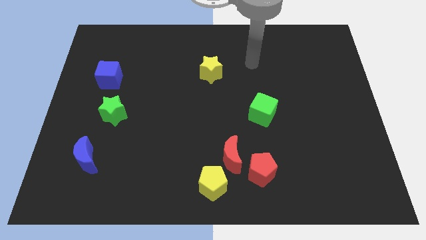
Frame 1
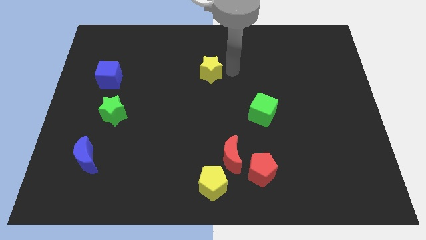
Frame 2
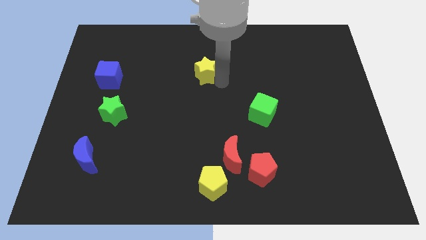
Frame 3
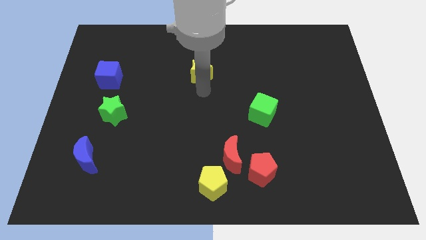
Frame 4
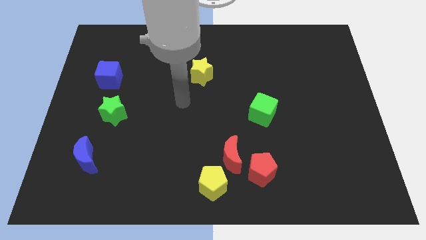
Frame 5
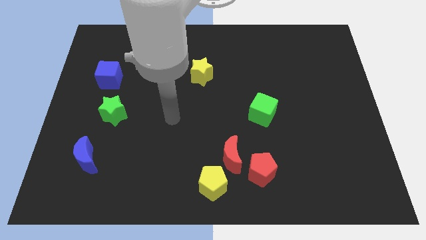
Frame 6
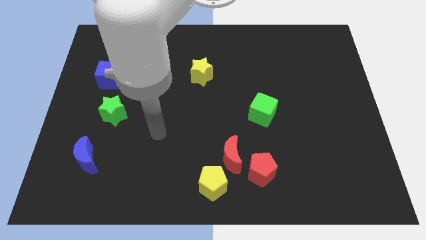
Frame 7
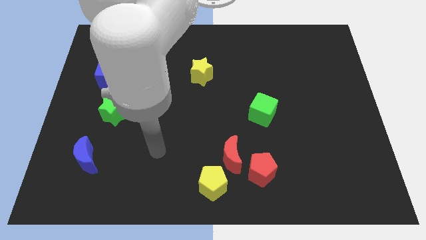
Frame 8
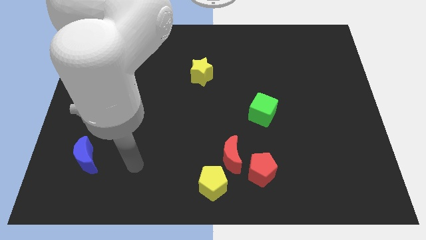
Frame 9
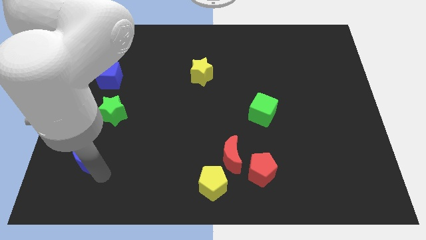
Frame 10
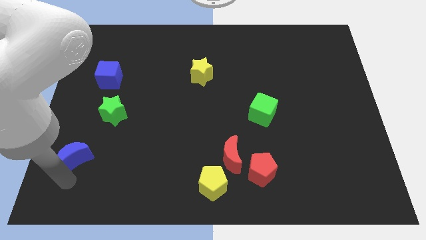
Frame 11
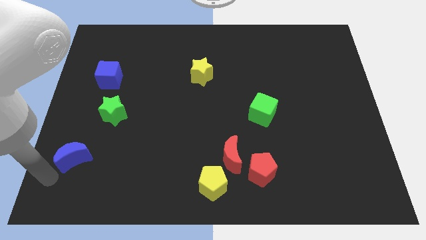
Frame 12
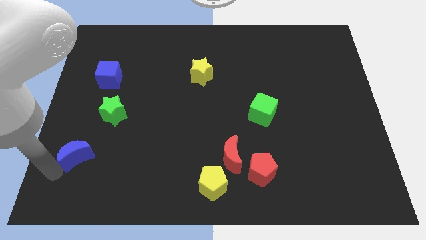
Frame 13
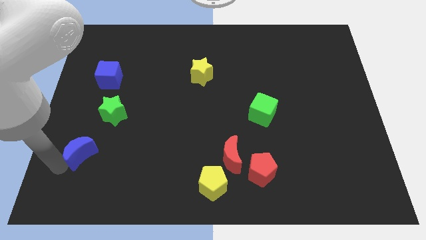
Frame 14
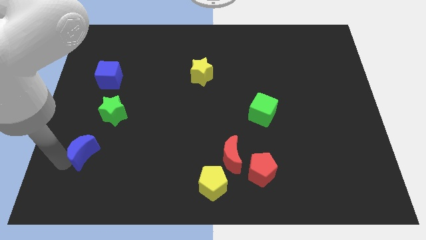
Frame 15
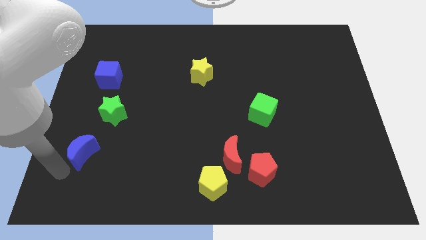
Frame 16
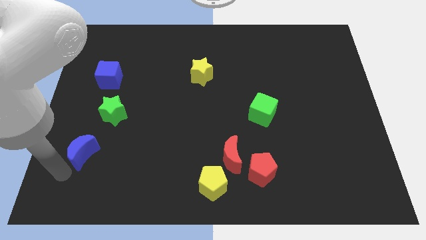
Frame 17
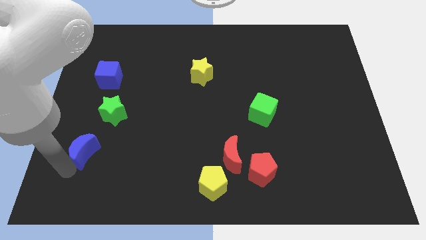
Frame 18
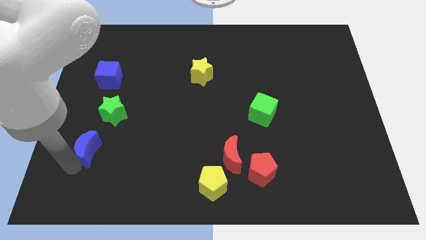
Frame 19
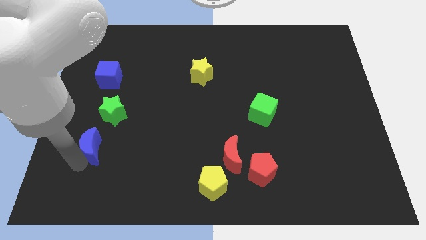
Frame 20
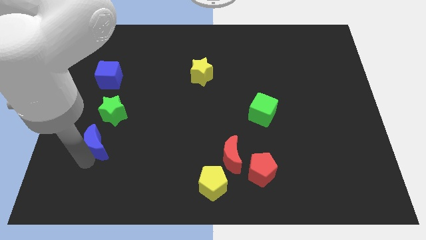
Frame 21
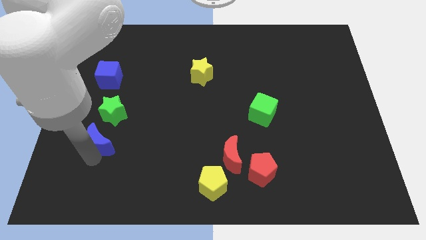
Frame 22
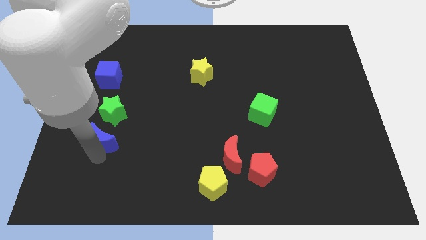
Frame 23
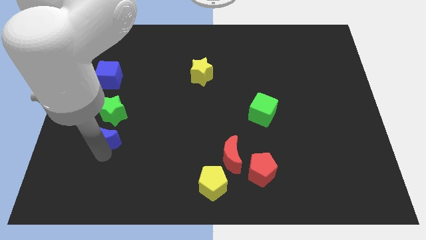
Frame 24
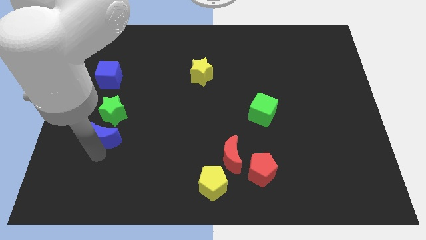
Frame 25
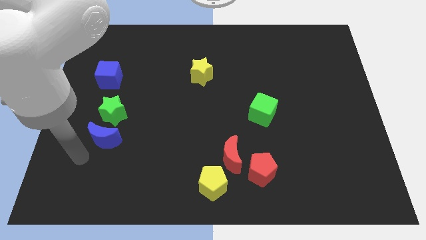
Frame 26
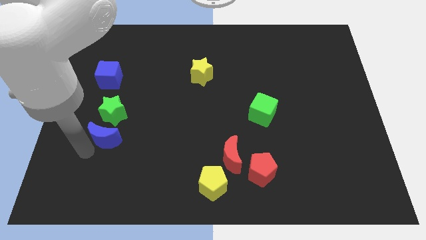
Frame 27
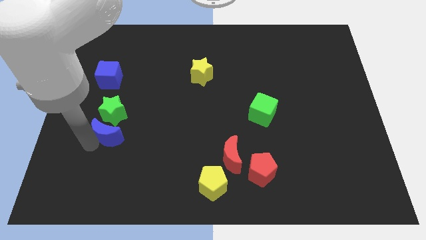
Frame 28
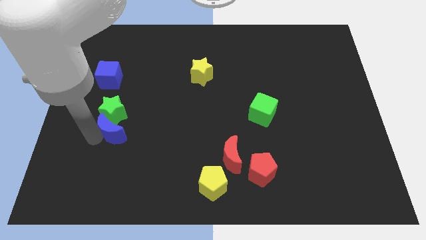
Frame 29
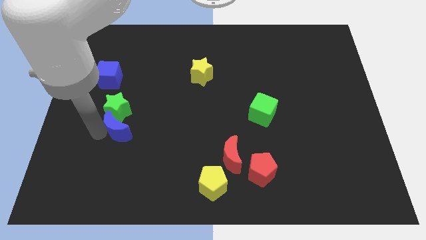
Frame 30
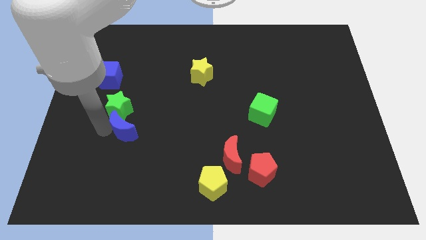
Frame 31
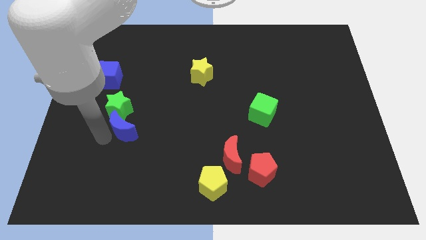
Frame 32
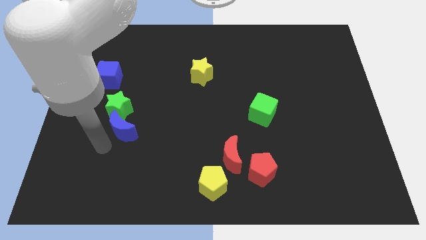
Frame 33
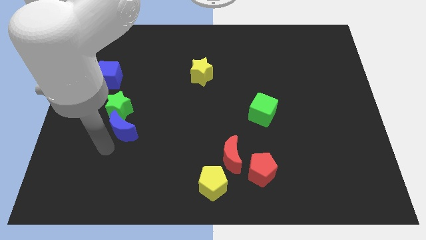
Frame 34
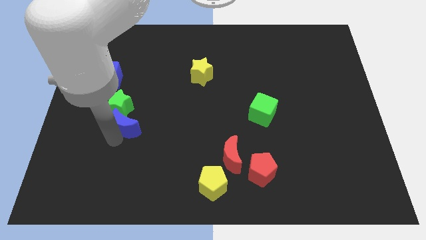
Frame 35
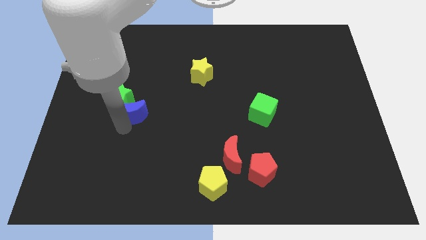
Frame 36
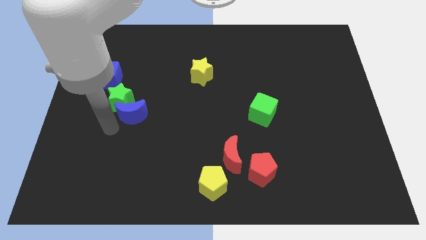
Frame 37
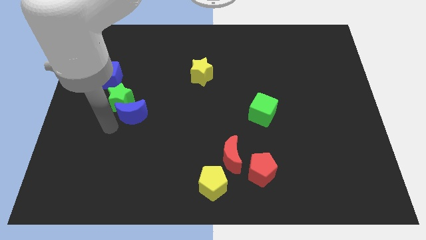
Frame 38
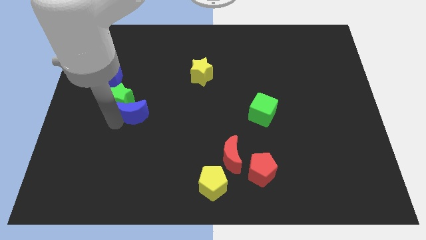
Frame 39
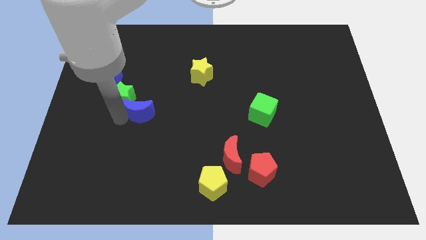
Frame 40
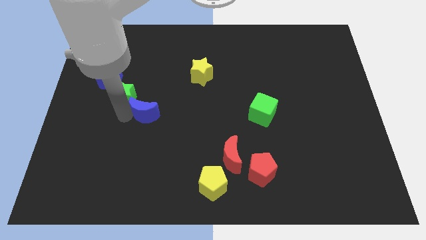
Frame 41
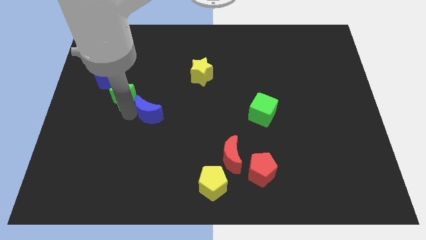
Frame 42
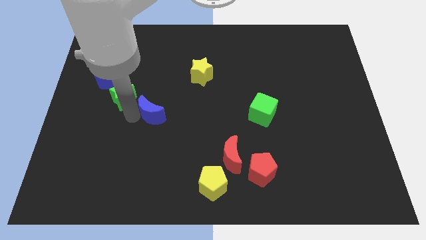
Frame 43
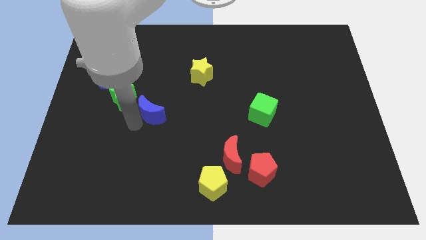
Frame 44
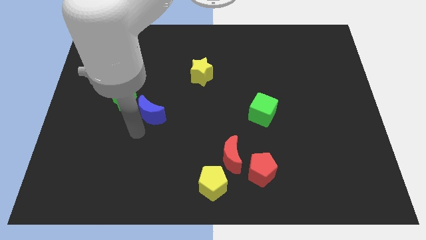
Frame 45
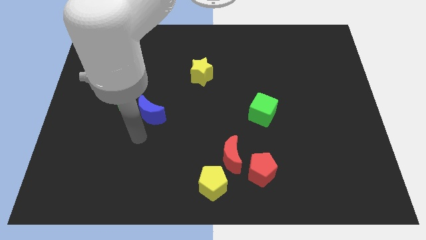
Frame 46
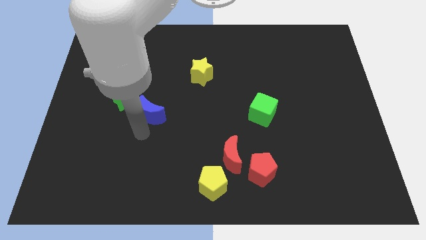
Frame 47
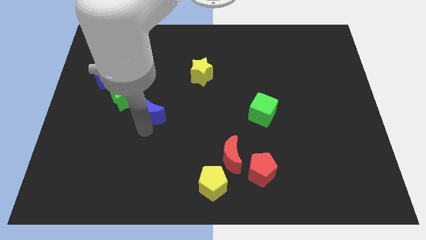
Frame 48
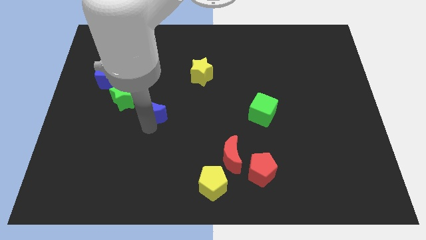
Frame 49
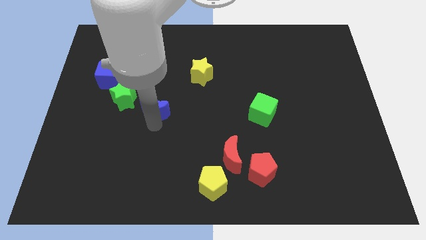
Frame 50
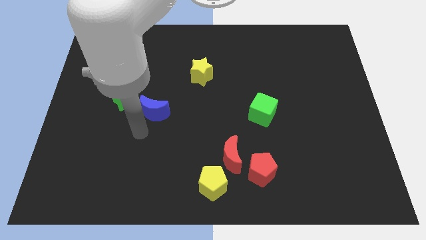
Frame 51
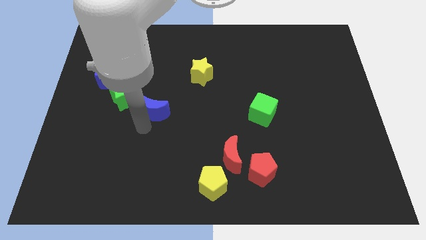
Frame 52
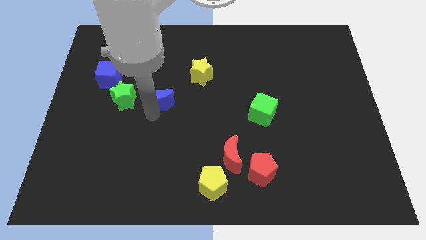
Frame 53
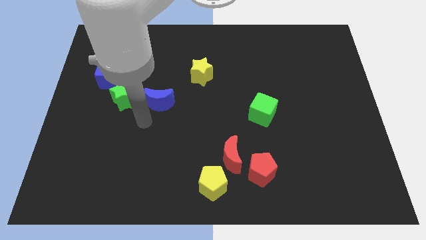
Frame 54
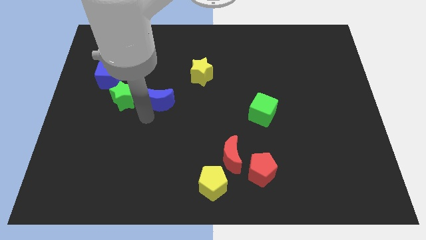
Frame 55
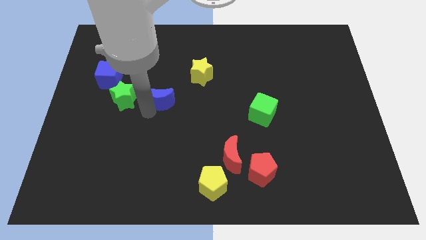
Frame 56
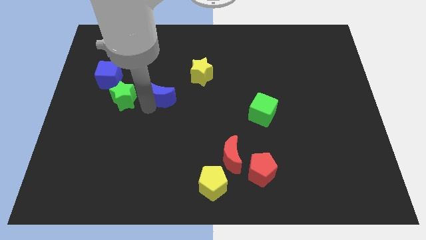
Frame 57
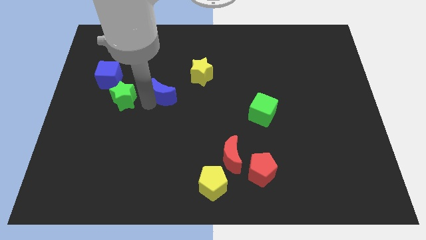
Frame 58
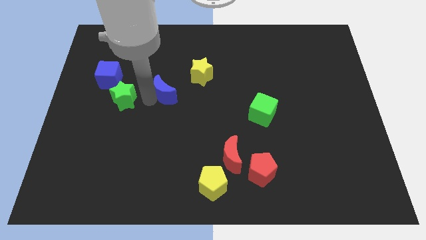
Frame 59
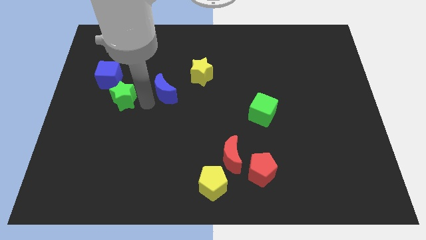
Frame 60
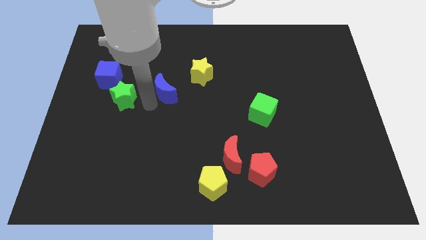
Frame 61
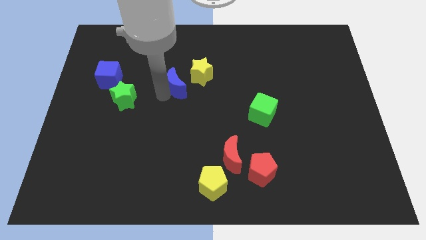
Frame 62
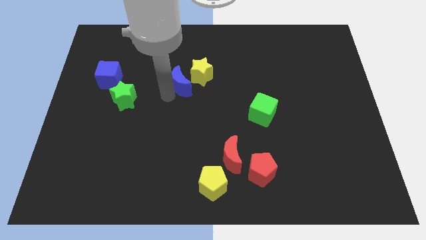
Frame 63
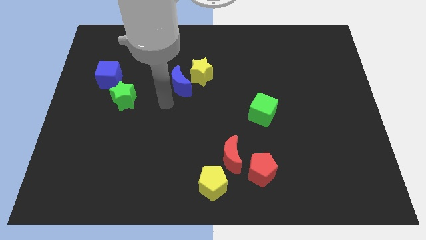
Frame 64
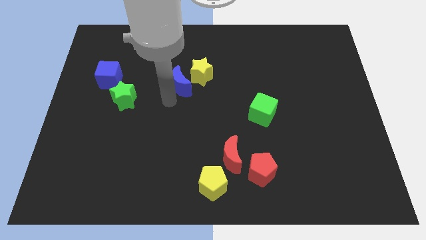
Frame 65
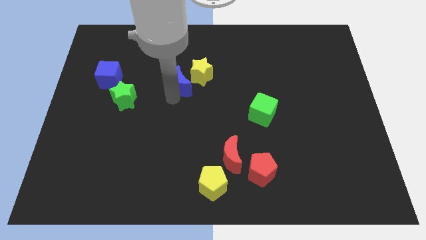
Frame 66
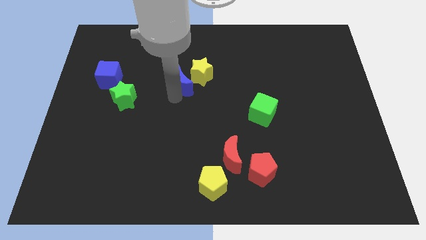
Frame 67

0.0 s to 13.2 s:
put the blue moon next to the yellow star
